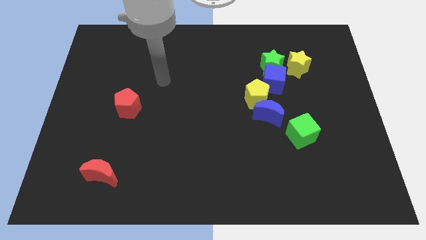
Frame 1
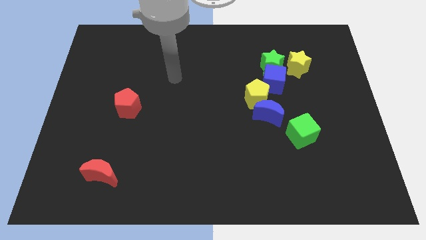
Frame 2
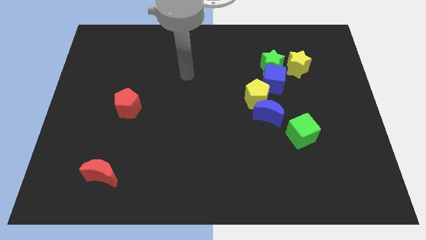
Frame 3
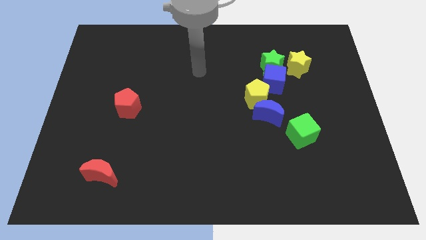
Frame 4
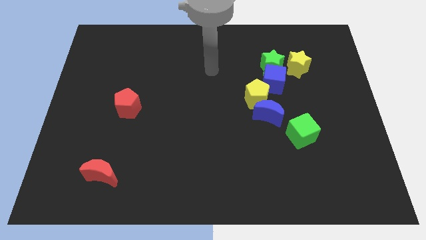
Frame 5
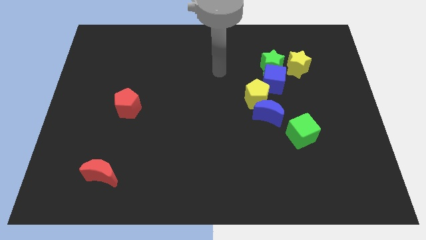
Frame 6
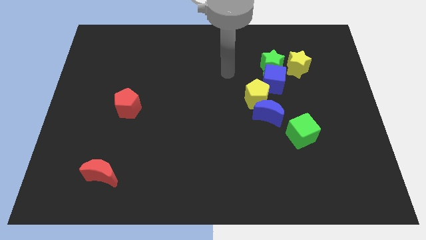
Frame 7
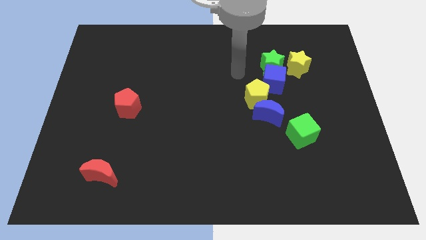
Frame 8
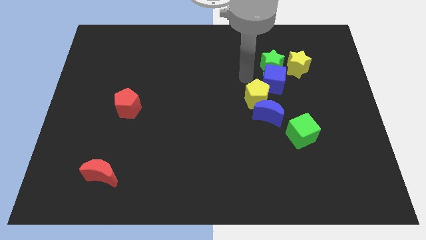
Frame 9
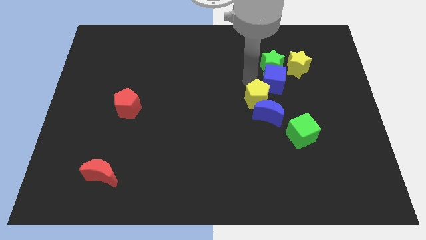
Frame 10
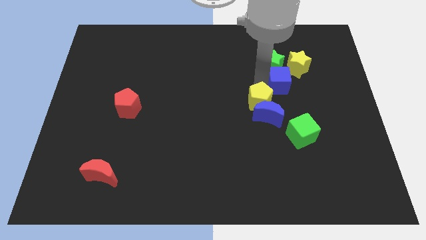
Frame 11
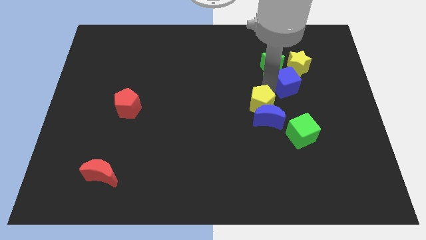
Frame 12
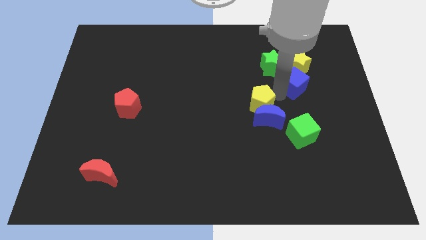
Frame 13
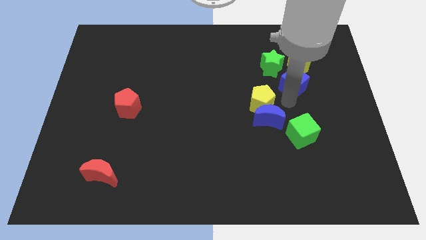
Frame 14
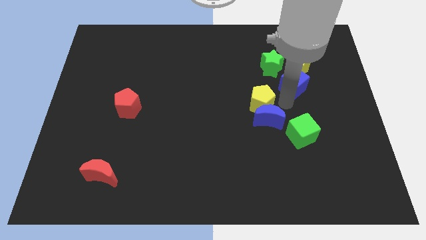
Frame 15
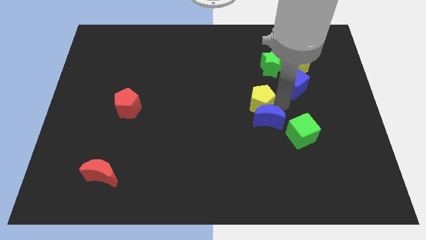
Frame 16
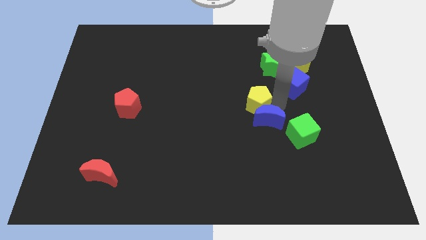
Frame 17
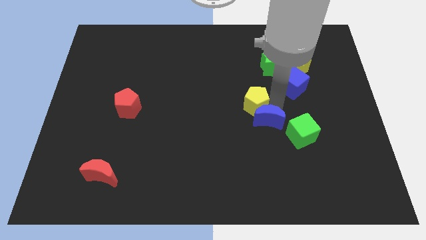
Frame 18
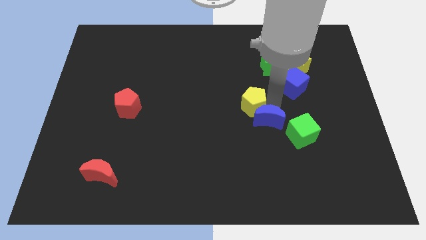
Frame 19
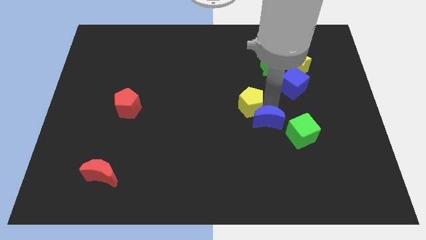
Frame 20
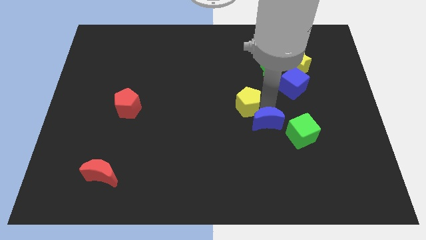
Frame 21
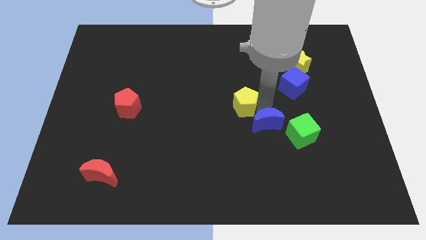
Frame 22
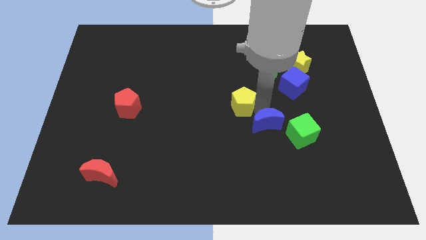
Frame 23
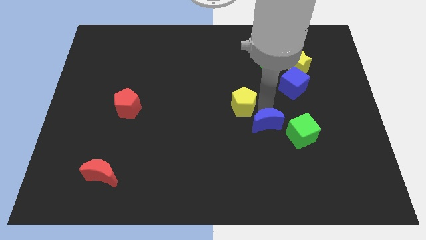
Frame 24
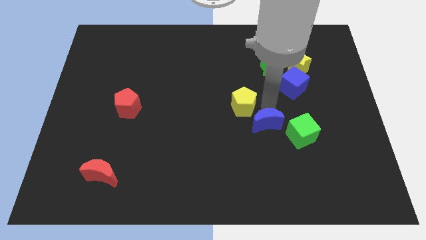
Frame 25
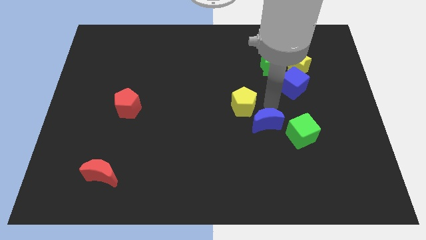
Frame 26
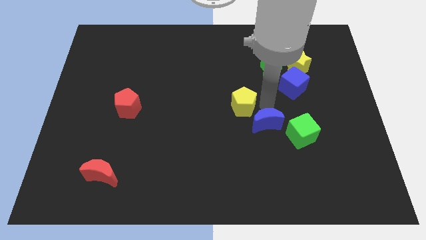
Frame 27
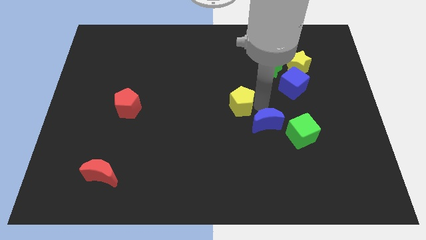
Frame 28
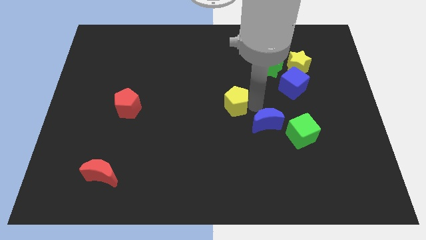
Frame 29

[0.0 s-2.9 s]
pull the yellow pentagon apart from the blue moon and blue cube

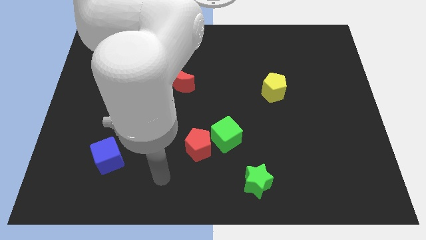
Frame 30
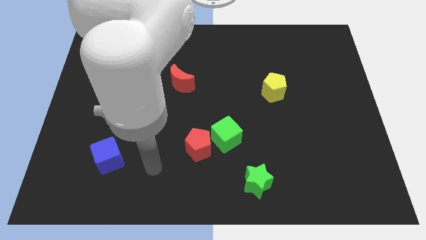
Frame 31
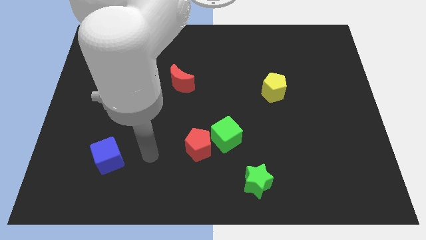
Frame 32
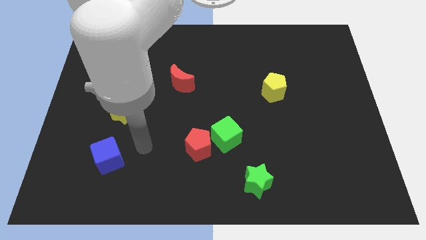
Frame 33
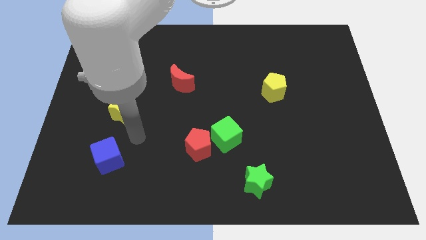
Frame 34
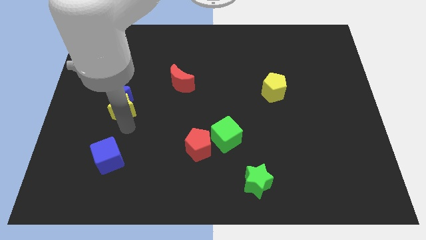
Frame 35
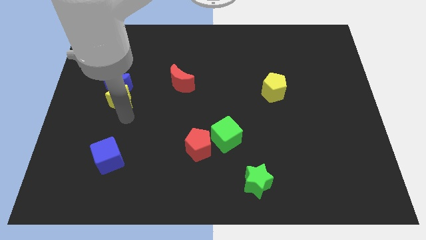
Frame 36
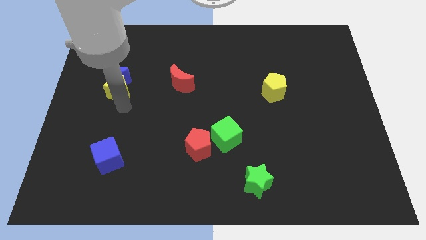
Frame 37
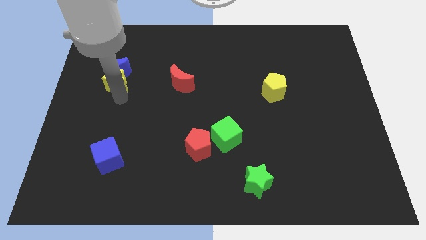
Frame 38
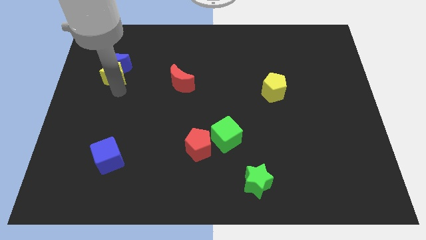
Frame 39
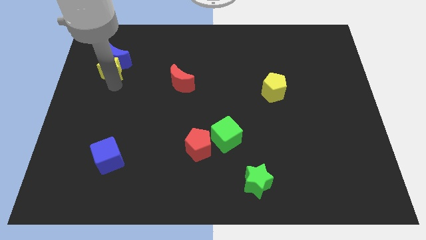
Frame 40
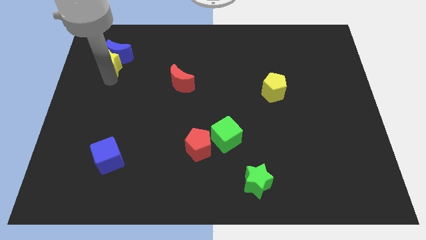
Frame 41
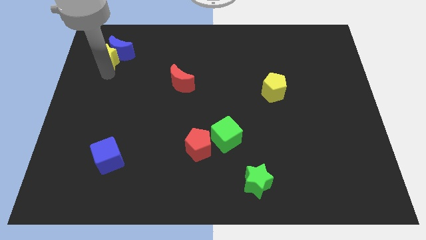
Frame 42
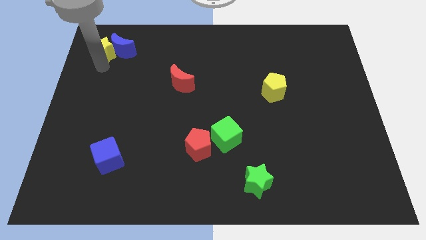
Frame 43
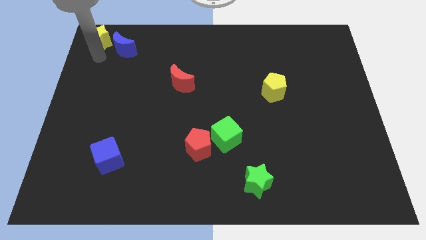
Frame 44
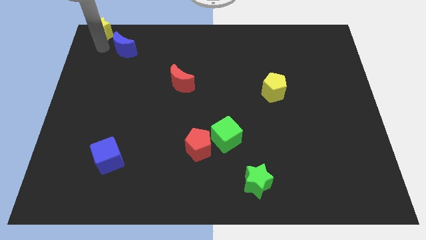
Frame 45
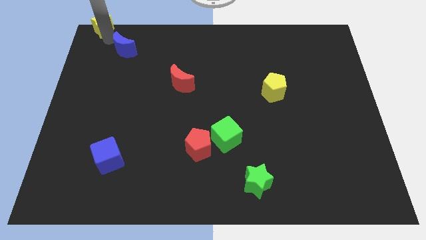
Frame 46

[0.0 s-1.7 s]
pull the blue moon apart from the yellow star

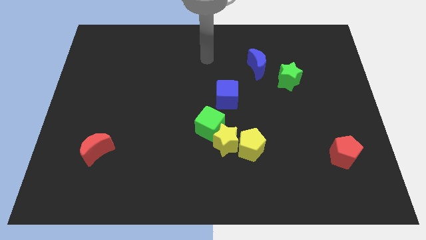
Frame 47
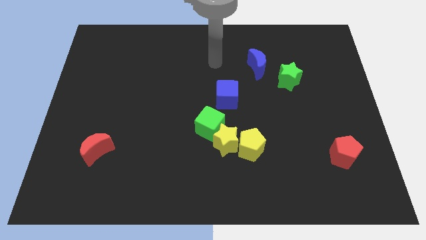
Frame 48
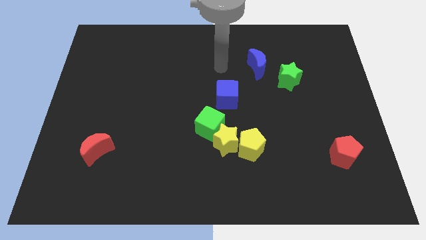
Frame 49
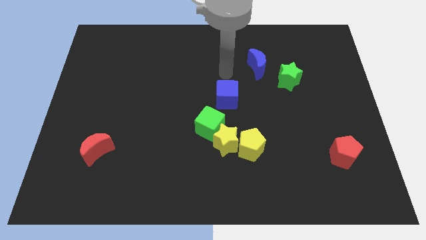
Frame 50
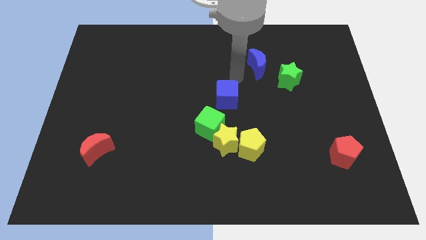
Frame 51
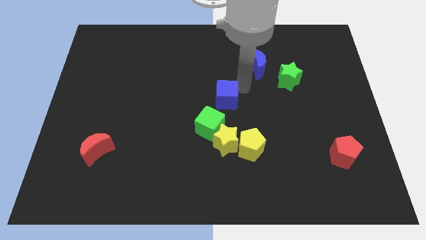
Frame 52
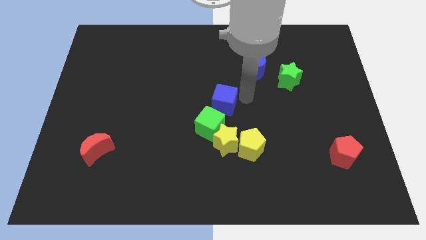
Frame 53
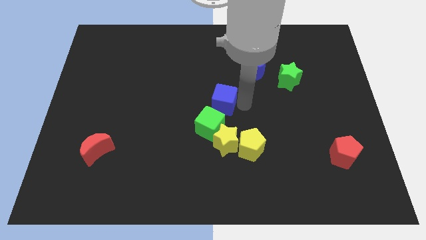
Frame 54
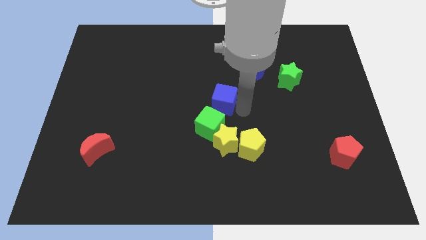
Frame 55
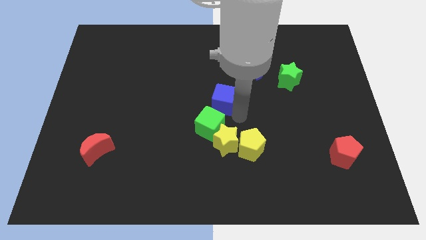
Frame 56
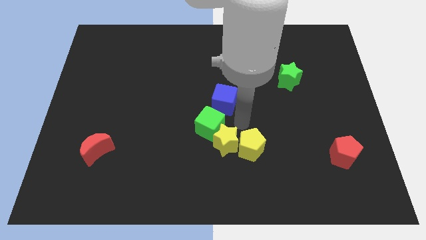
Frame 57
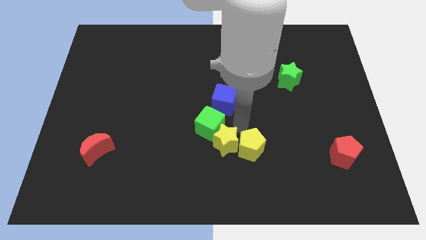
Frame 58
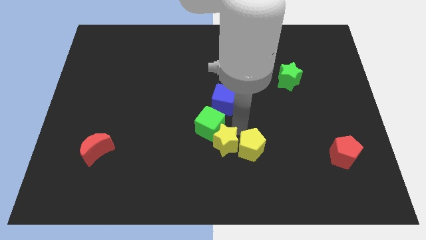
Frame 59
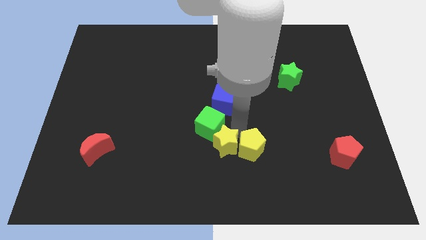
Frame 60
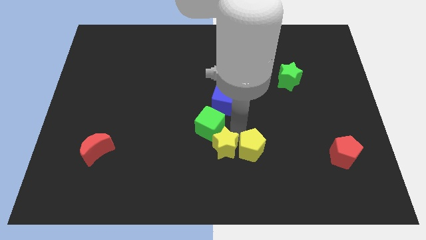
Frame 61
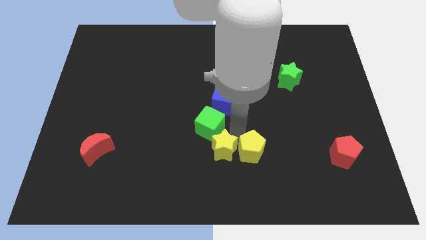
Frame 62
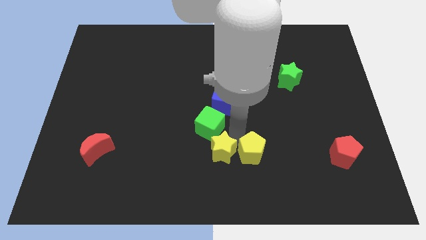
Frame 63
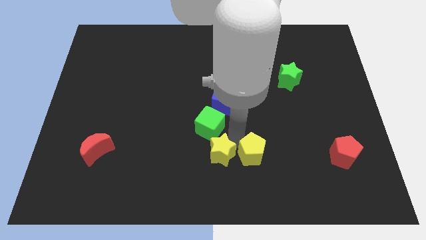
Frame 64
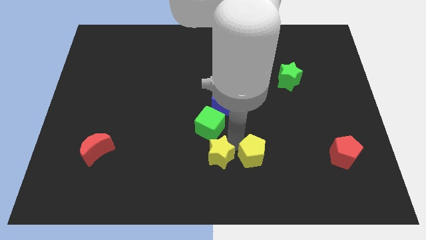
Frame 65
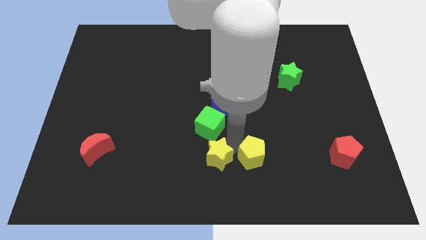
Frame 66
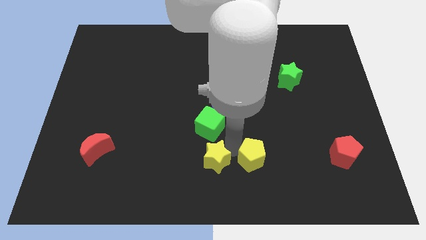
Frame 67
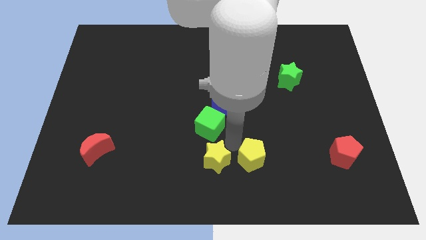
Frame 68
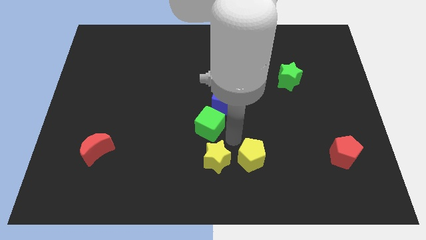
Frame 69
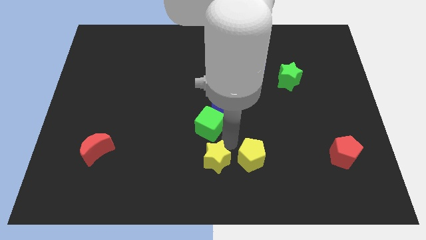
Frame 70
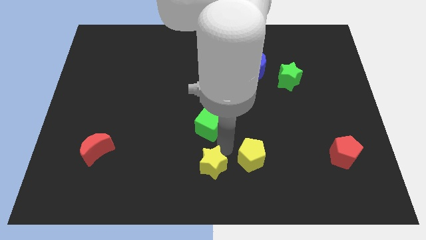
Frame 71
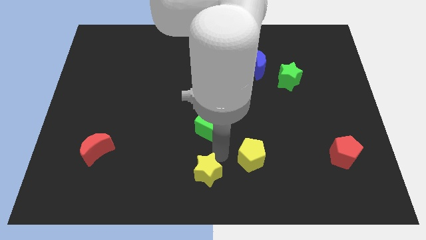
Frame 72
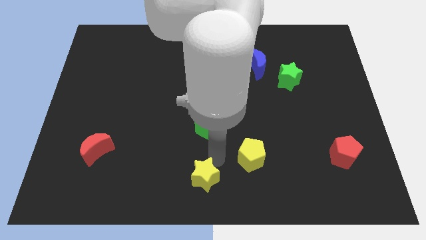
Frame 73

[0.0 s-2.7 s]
move the yellow star away from the green cube and yellow pentagon

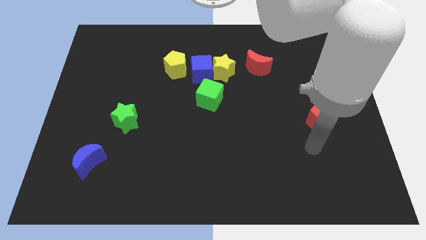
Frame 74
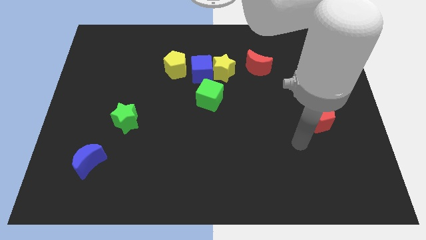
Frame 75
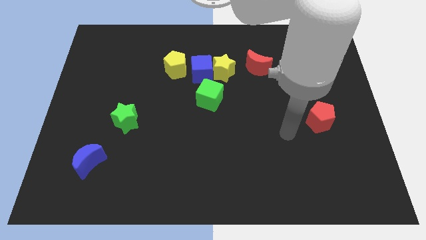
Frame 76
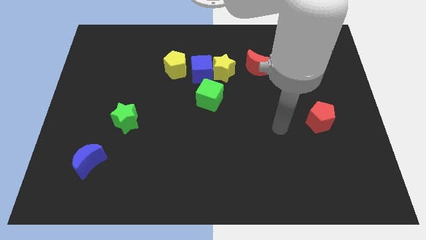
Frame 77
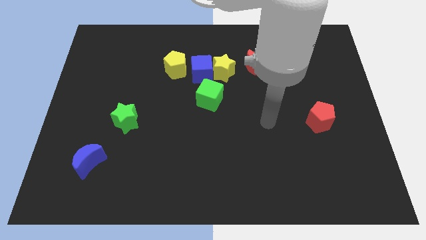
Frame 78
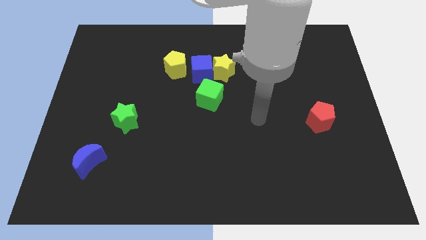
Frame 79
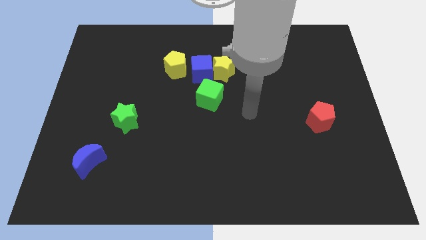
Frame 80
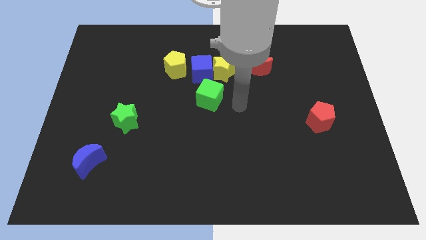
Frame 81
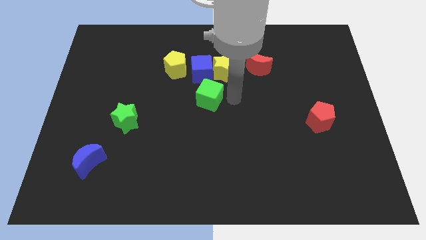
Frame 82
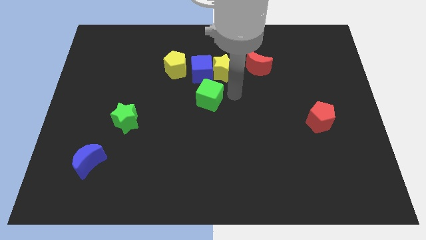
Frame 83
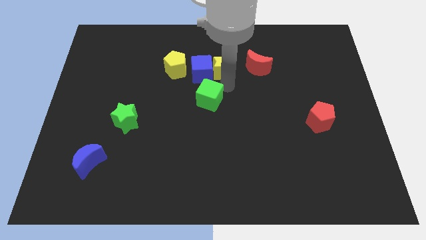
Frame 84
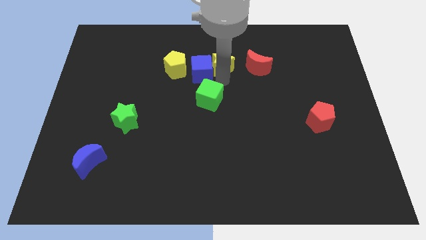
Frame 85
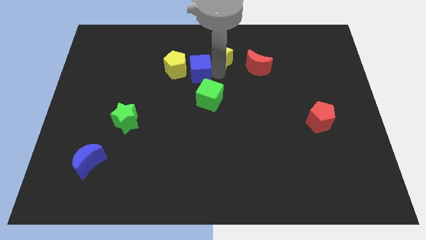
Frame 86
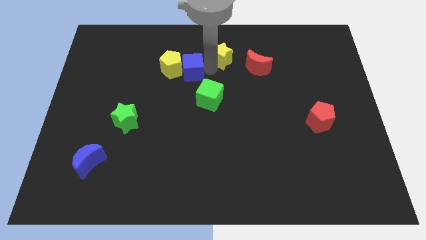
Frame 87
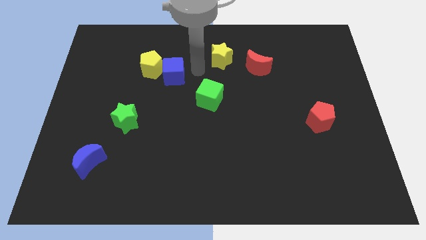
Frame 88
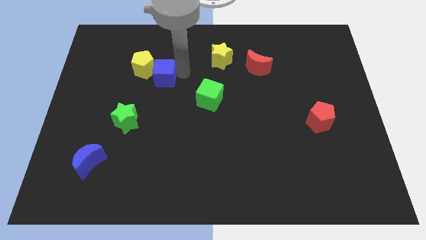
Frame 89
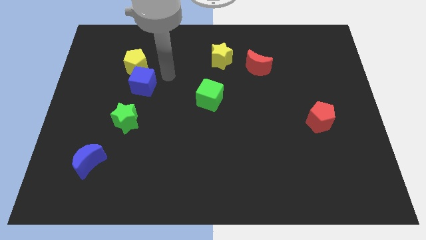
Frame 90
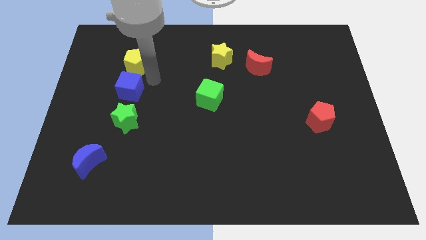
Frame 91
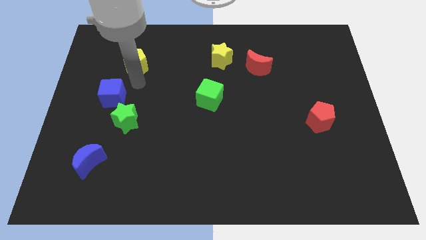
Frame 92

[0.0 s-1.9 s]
pull the yellow pentagon apart from the blue cube

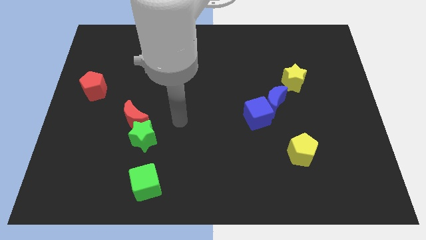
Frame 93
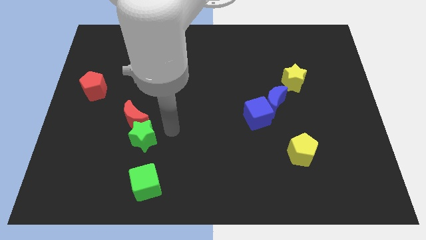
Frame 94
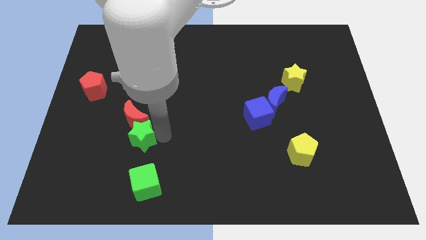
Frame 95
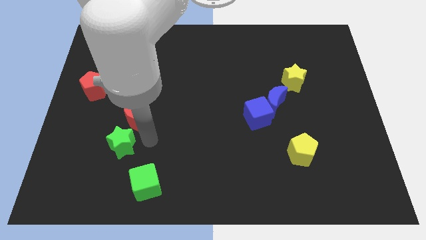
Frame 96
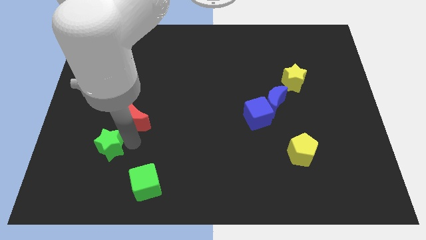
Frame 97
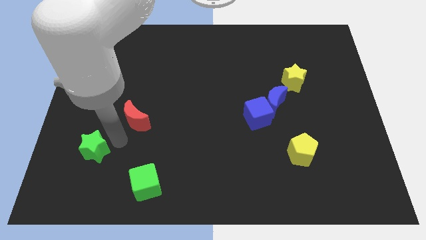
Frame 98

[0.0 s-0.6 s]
move the red moon away from the green star
